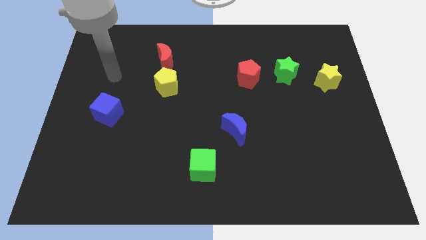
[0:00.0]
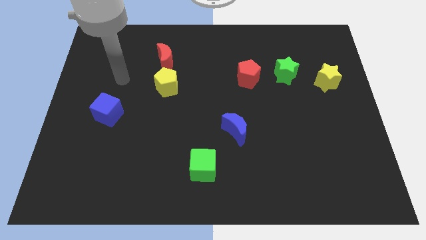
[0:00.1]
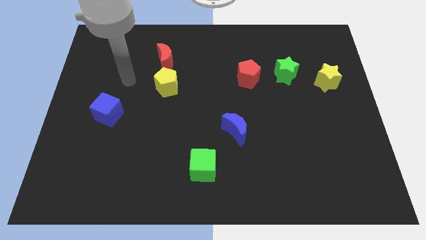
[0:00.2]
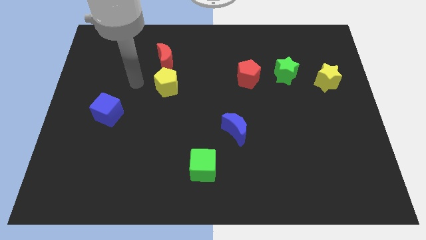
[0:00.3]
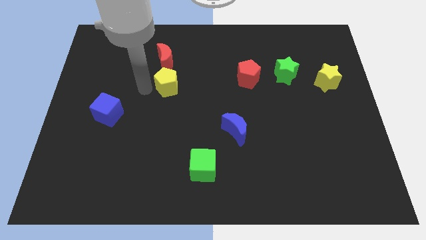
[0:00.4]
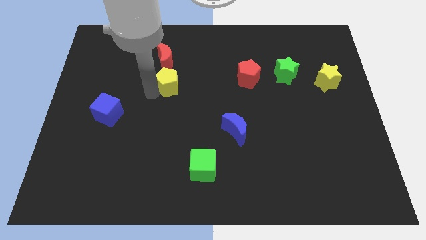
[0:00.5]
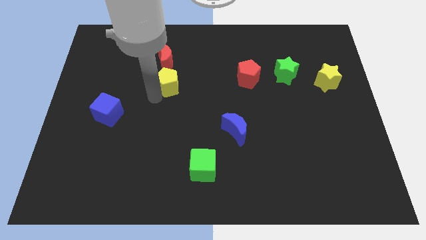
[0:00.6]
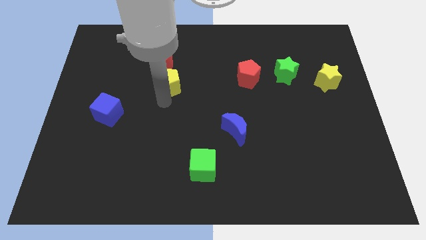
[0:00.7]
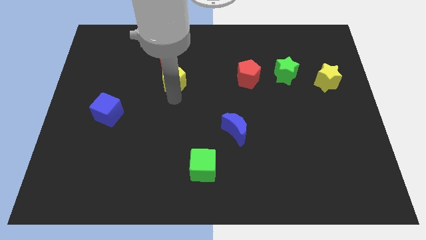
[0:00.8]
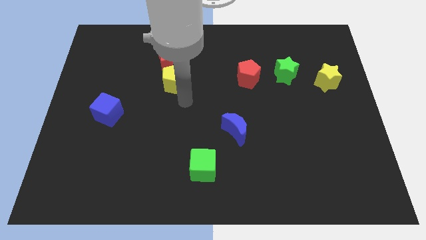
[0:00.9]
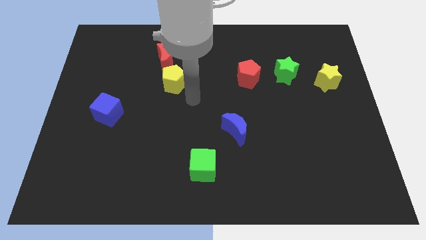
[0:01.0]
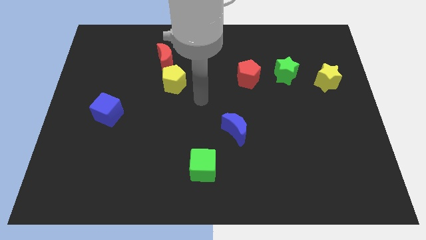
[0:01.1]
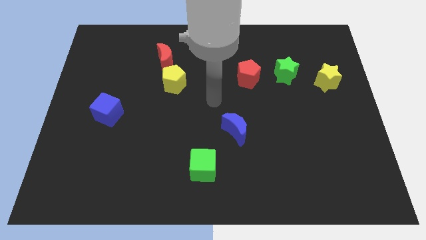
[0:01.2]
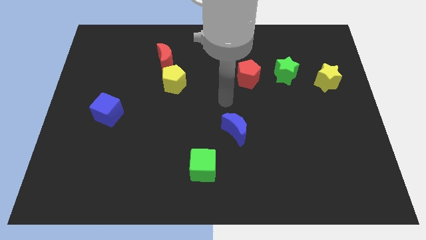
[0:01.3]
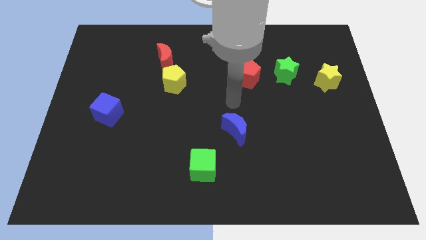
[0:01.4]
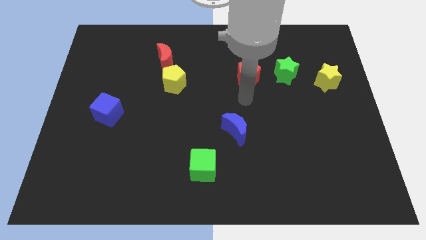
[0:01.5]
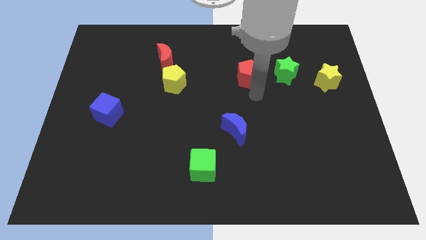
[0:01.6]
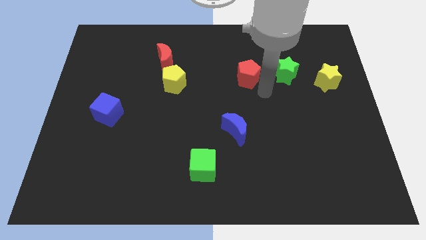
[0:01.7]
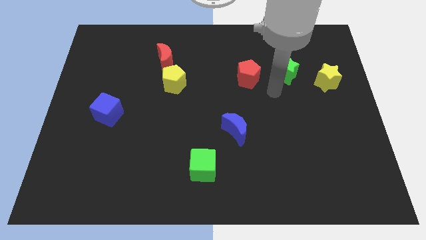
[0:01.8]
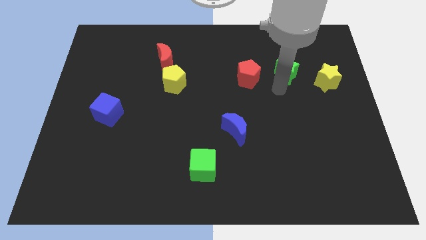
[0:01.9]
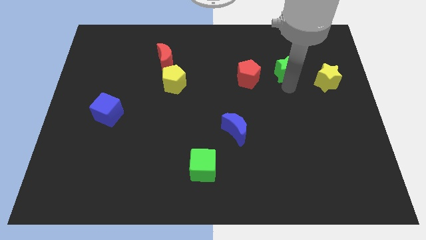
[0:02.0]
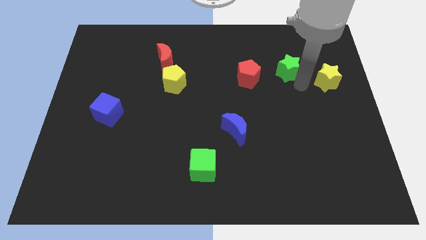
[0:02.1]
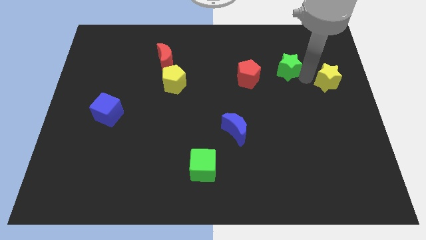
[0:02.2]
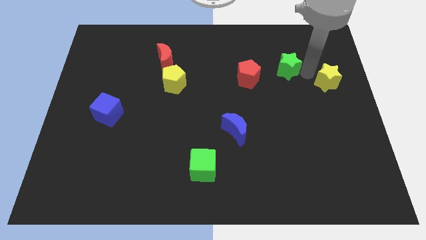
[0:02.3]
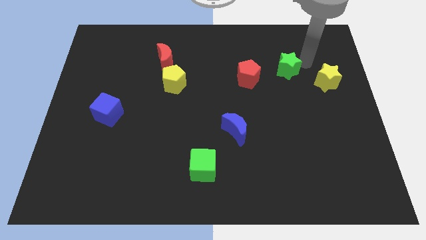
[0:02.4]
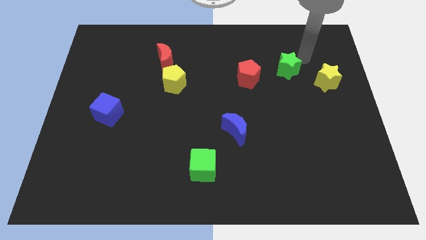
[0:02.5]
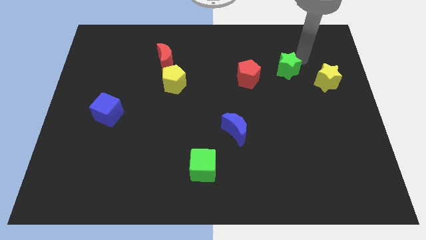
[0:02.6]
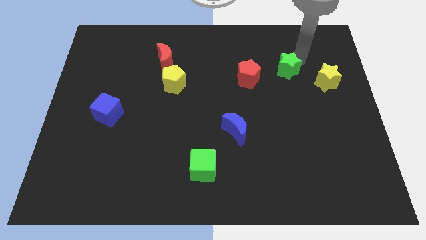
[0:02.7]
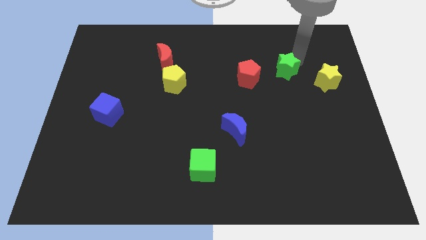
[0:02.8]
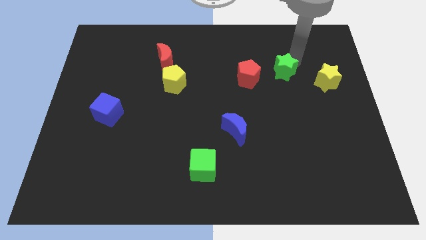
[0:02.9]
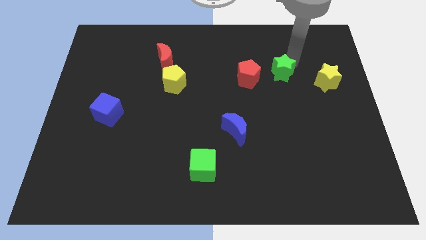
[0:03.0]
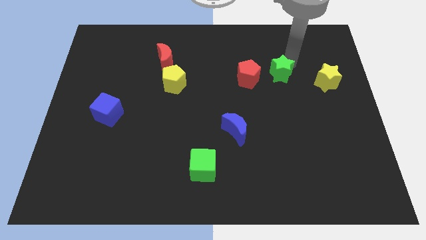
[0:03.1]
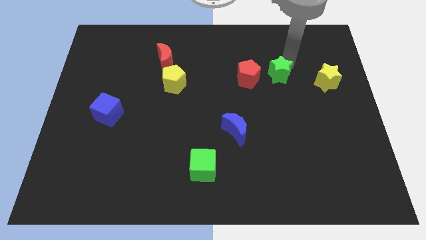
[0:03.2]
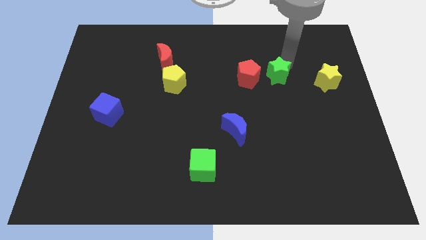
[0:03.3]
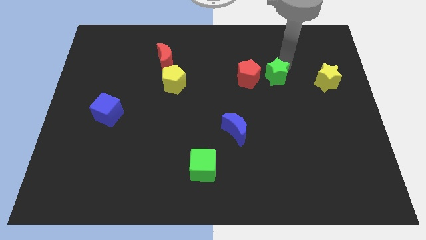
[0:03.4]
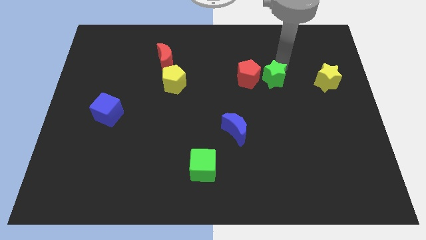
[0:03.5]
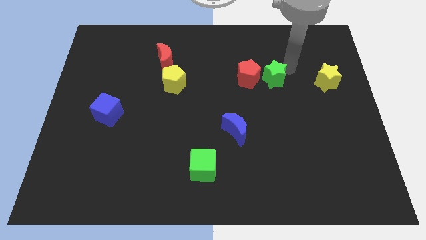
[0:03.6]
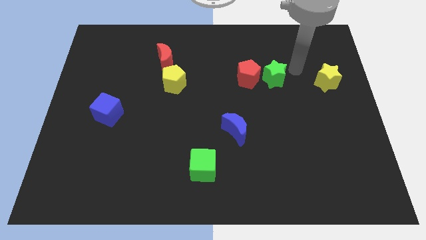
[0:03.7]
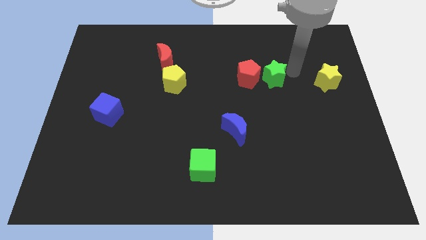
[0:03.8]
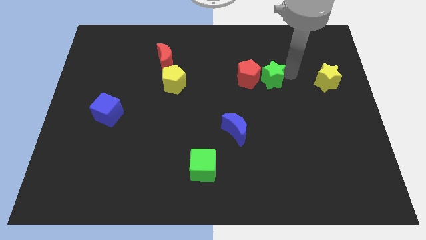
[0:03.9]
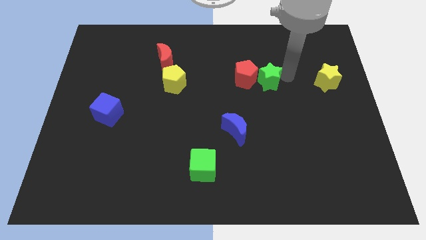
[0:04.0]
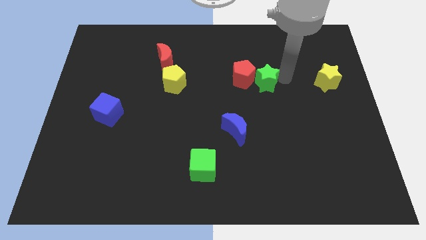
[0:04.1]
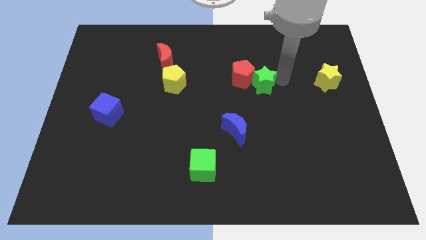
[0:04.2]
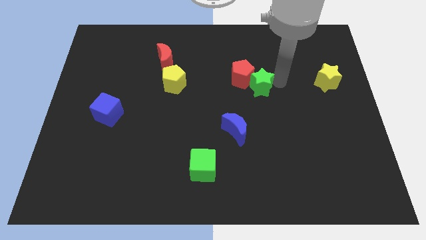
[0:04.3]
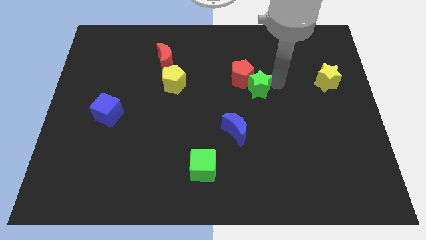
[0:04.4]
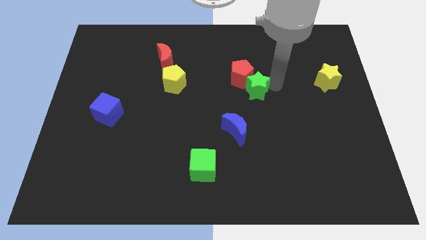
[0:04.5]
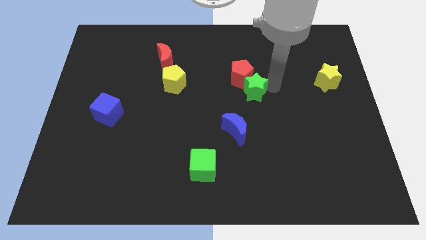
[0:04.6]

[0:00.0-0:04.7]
put the green star to the top side of the blue moon

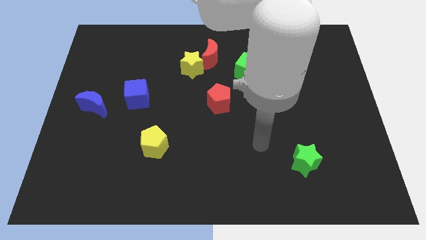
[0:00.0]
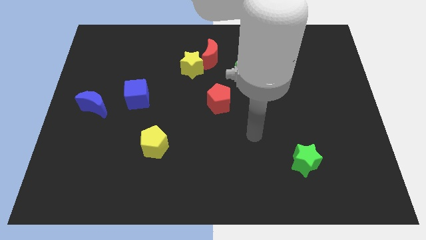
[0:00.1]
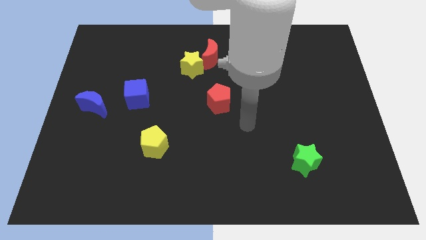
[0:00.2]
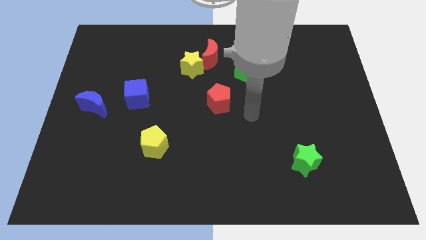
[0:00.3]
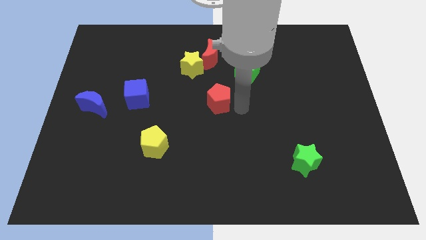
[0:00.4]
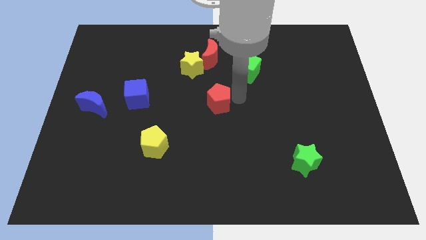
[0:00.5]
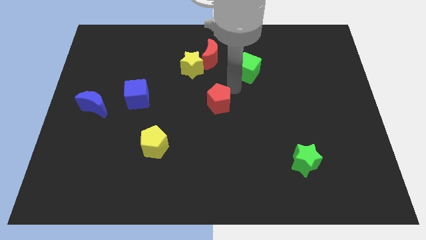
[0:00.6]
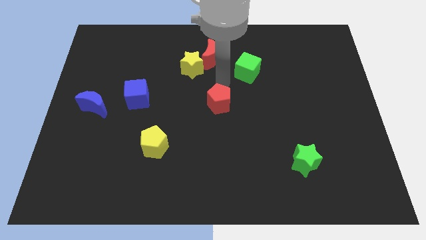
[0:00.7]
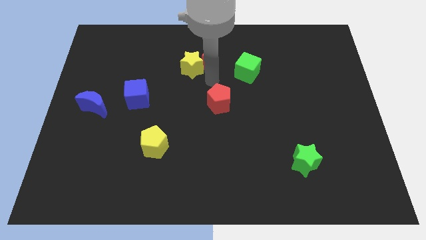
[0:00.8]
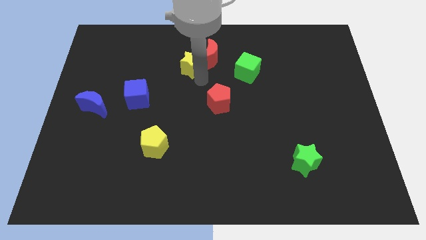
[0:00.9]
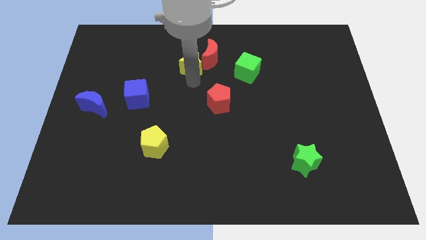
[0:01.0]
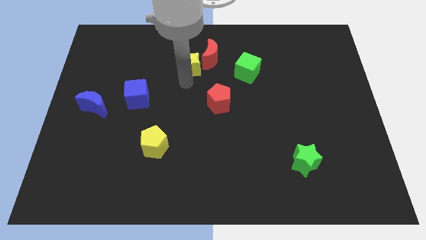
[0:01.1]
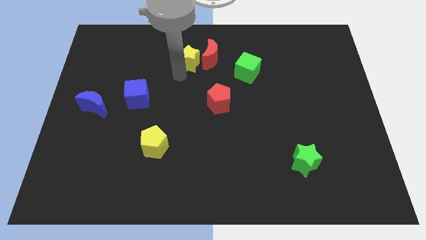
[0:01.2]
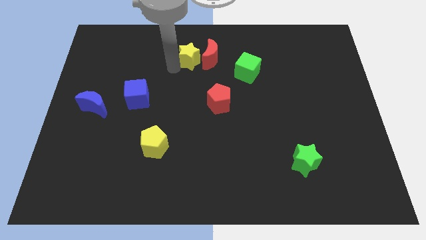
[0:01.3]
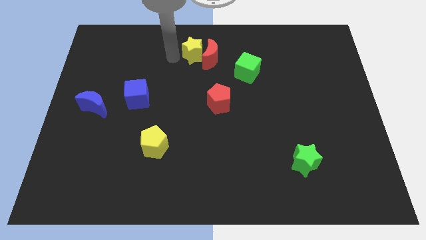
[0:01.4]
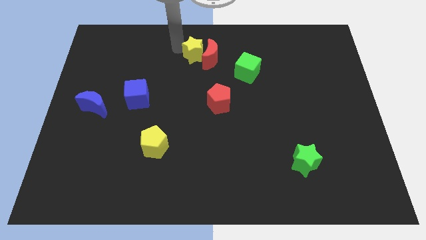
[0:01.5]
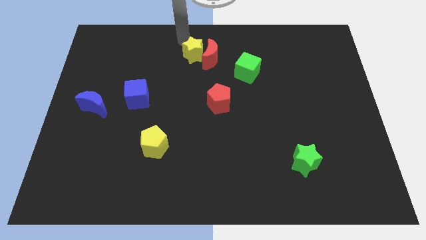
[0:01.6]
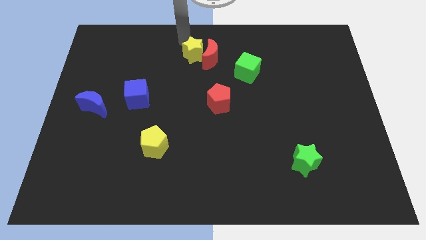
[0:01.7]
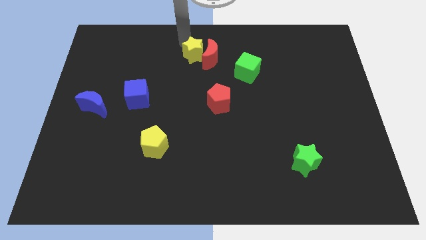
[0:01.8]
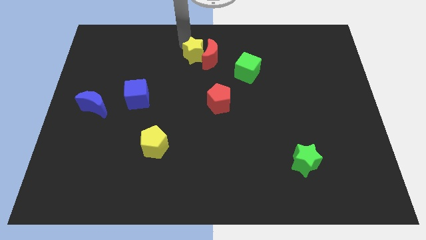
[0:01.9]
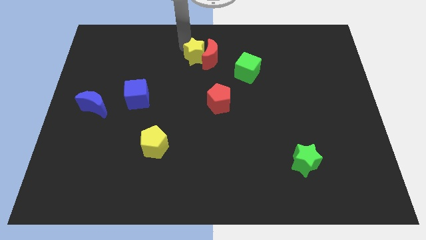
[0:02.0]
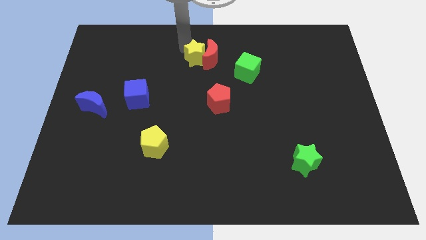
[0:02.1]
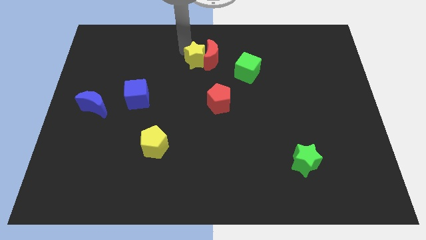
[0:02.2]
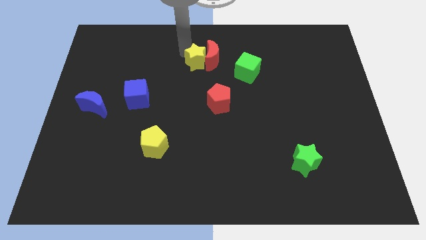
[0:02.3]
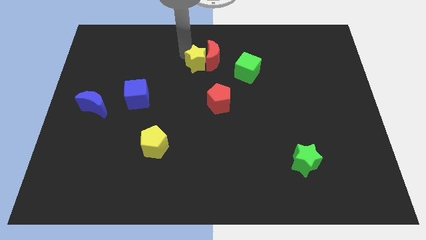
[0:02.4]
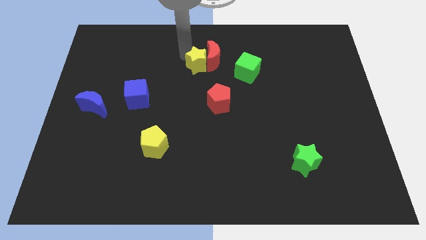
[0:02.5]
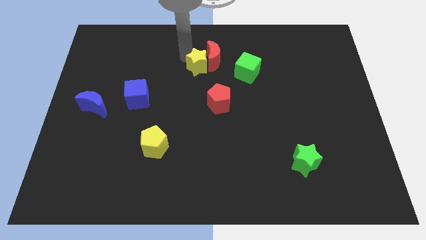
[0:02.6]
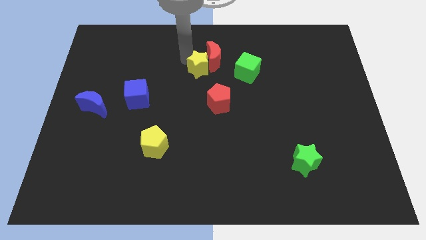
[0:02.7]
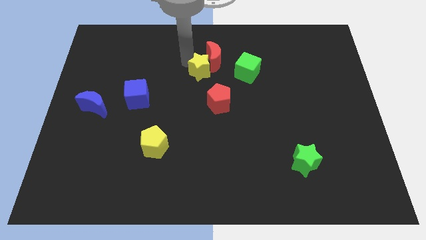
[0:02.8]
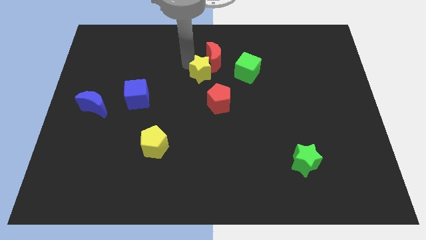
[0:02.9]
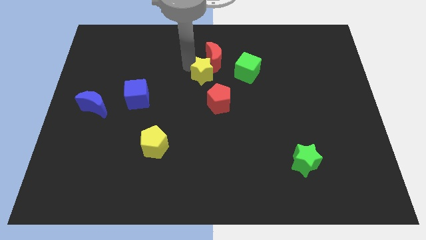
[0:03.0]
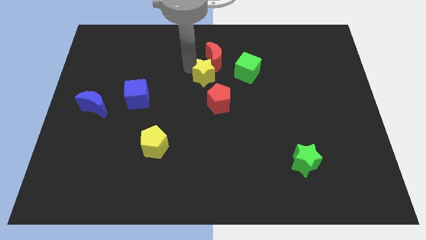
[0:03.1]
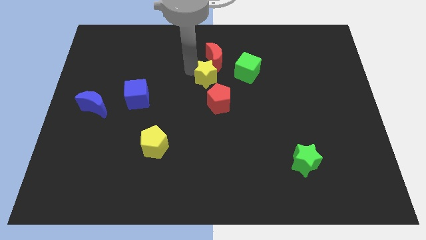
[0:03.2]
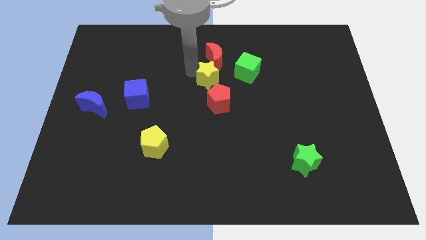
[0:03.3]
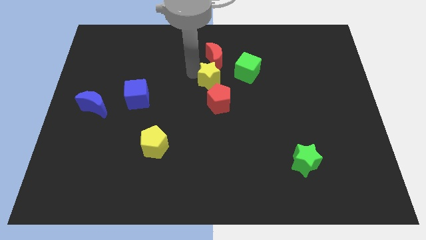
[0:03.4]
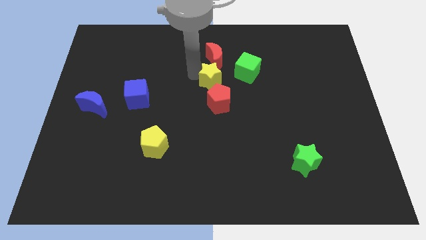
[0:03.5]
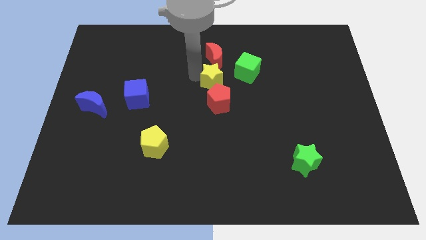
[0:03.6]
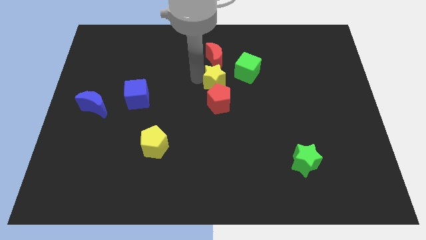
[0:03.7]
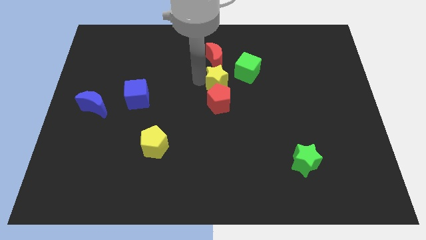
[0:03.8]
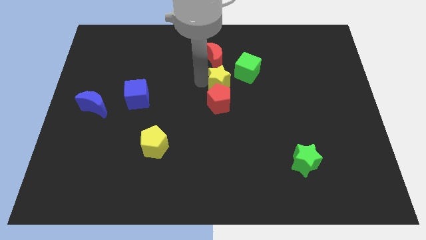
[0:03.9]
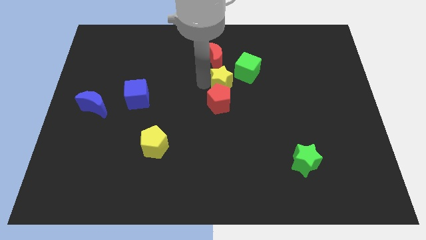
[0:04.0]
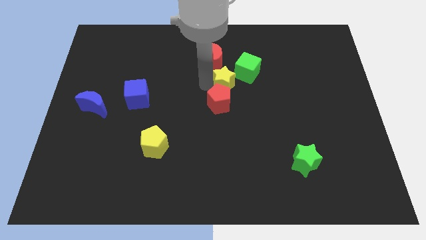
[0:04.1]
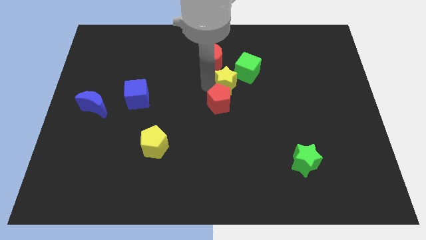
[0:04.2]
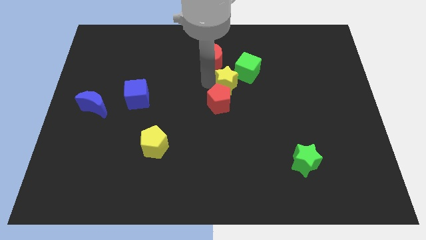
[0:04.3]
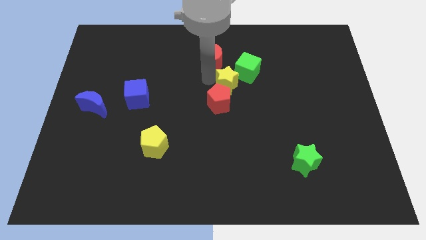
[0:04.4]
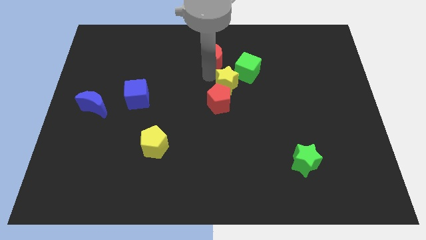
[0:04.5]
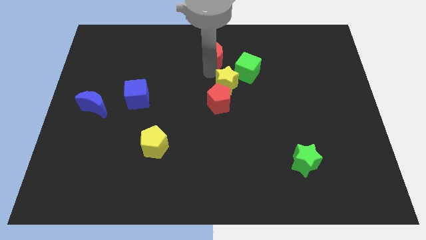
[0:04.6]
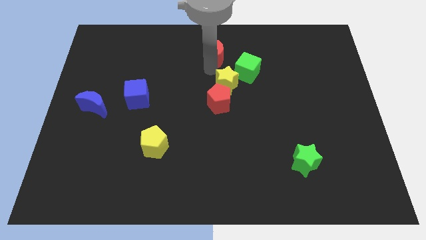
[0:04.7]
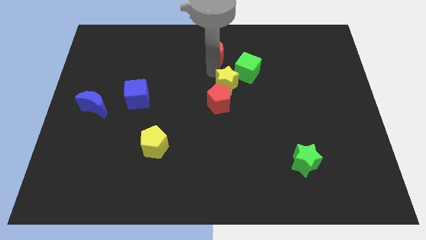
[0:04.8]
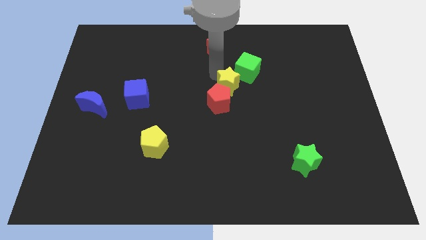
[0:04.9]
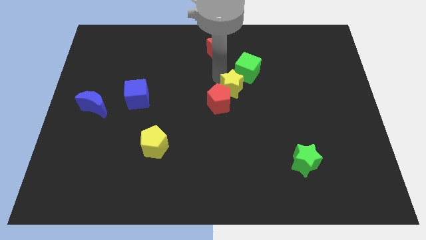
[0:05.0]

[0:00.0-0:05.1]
put the yellow star to the right of the red pentagon
